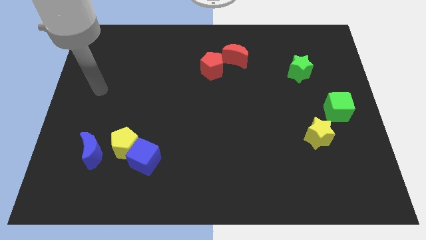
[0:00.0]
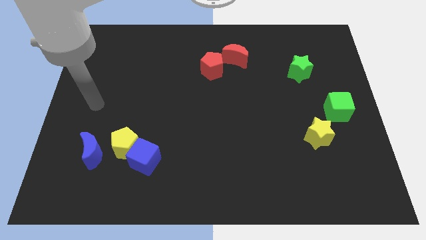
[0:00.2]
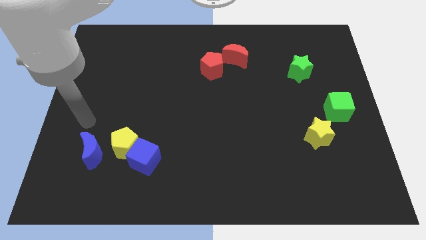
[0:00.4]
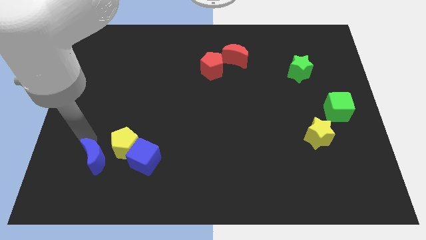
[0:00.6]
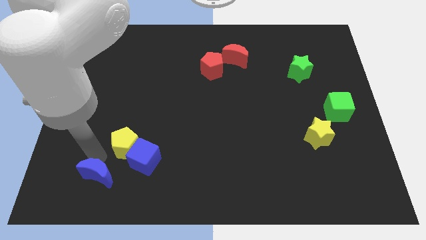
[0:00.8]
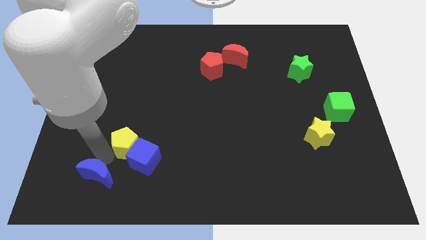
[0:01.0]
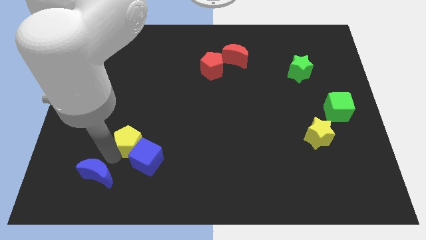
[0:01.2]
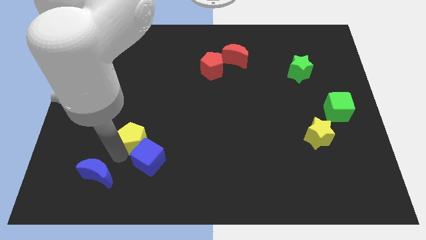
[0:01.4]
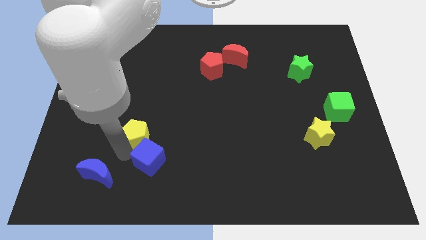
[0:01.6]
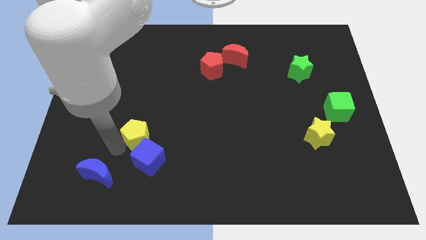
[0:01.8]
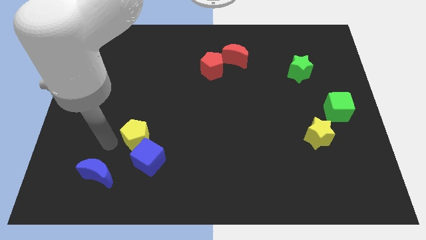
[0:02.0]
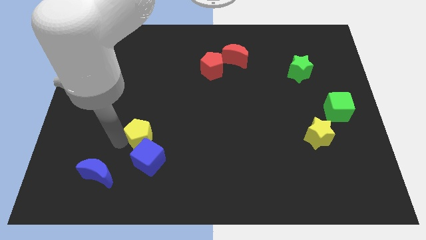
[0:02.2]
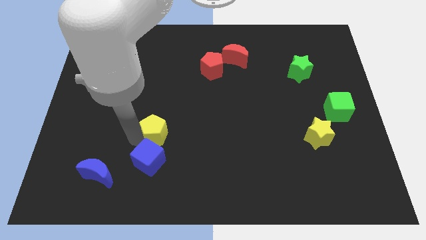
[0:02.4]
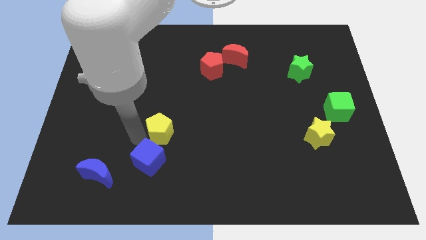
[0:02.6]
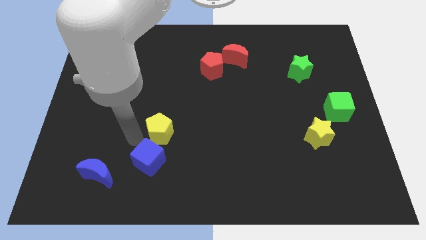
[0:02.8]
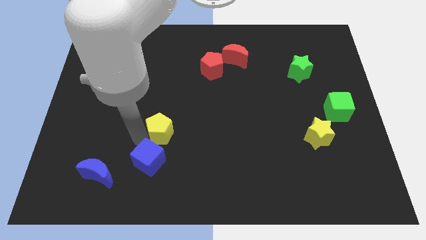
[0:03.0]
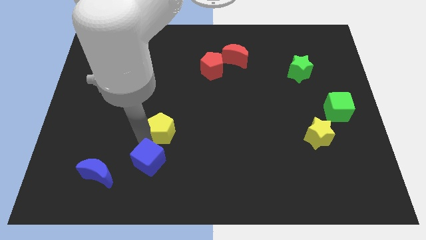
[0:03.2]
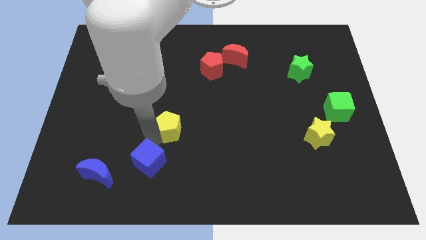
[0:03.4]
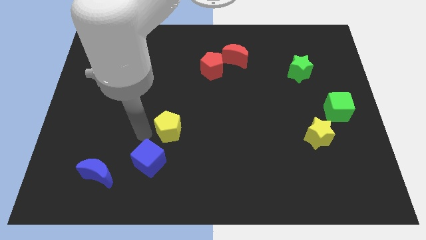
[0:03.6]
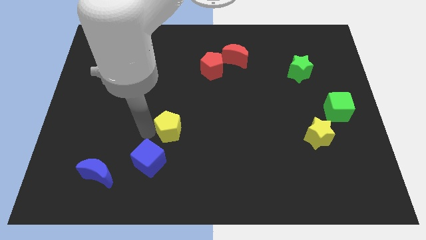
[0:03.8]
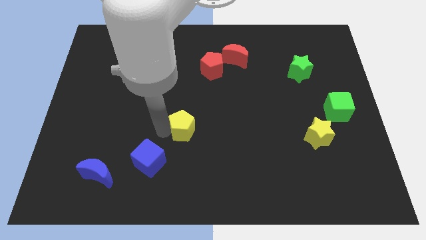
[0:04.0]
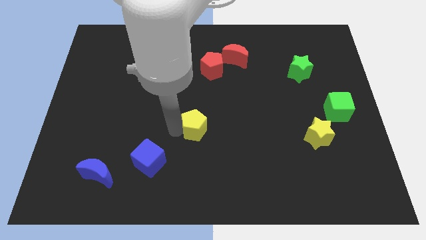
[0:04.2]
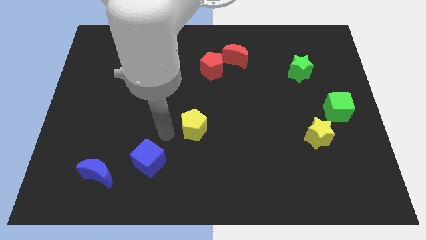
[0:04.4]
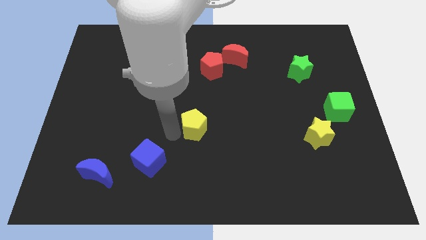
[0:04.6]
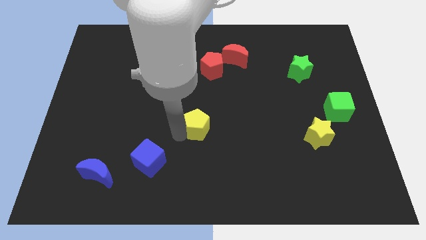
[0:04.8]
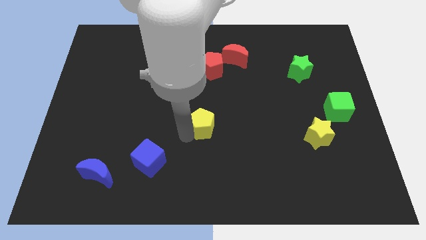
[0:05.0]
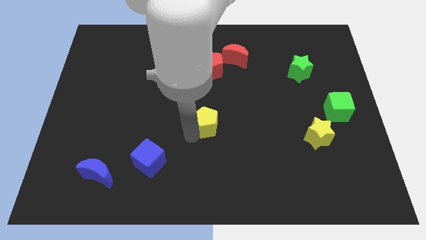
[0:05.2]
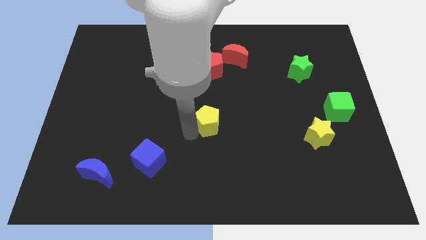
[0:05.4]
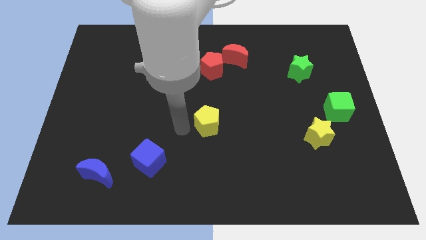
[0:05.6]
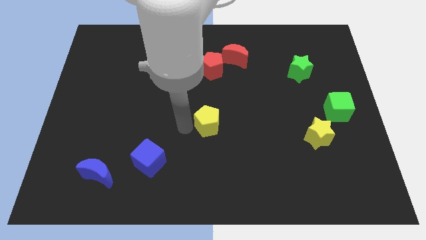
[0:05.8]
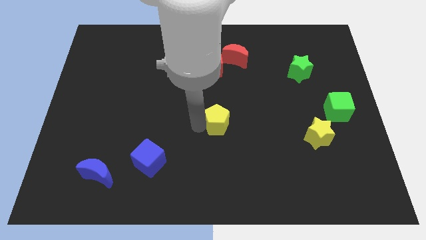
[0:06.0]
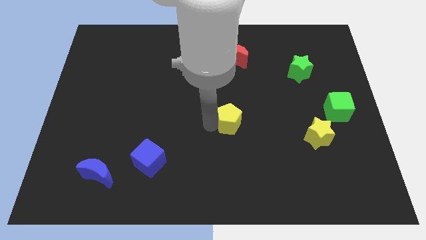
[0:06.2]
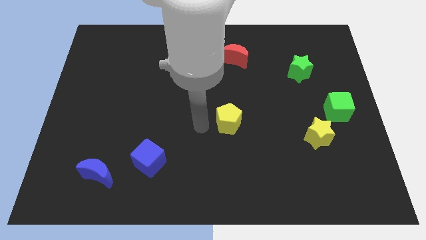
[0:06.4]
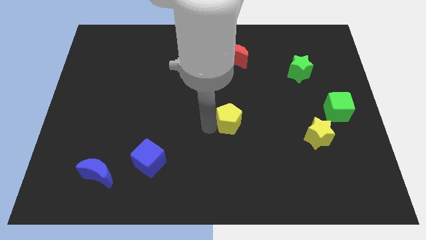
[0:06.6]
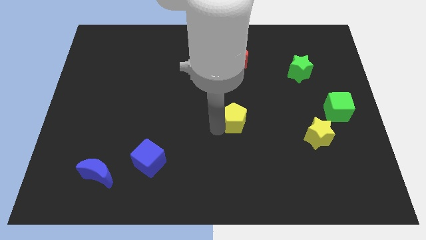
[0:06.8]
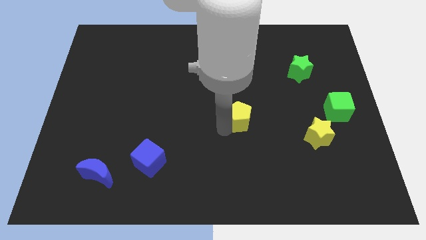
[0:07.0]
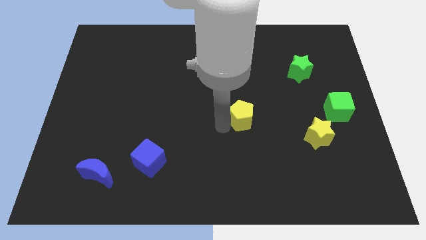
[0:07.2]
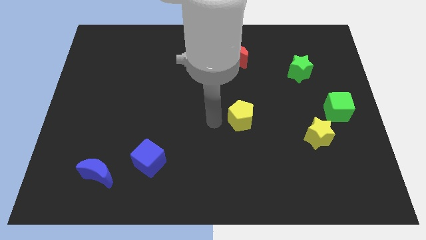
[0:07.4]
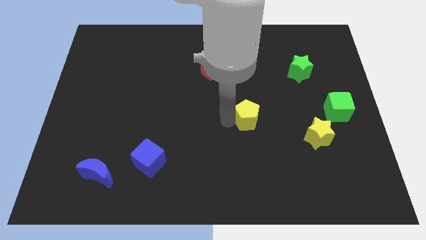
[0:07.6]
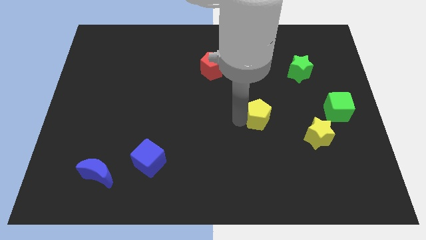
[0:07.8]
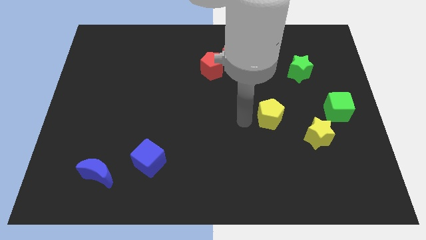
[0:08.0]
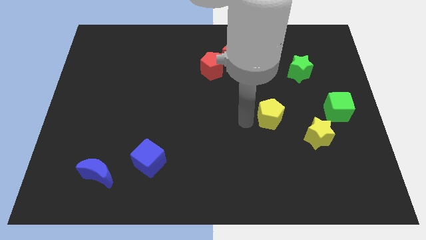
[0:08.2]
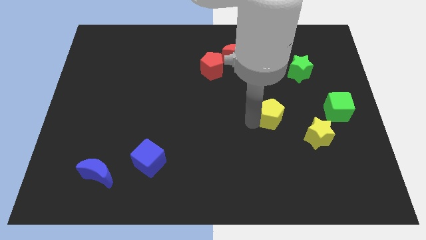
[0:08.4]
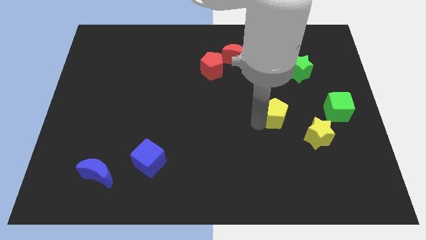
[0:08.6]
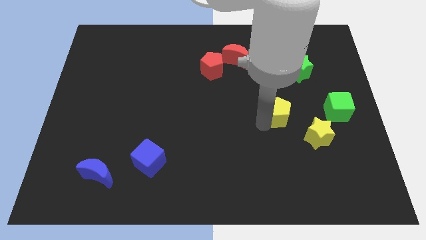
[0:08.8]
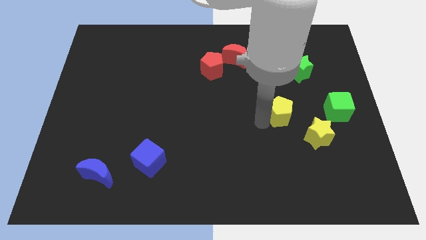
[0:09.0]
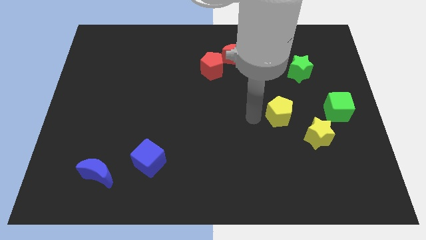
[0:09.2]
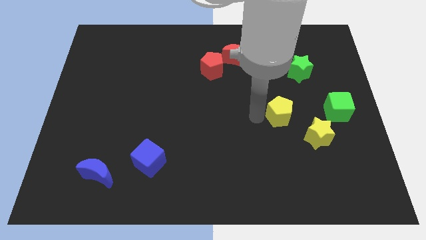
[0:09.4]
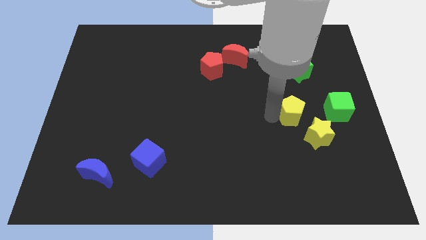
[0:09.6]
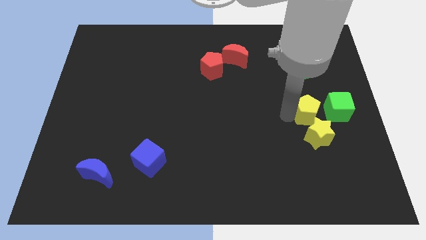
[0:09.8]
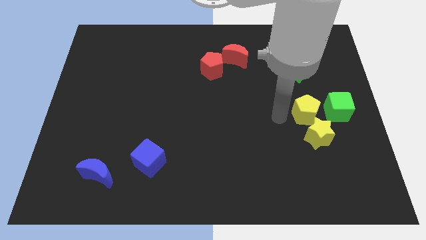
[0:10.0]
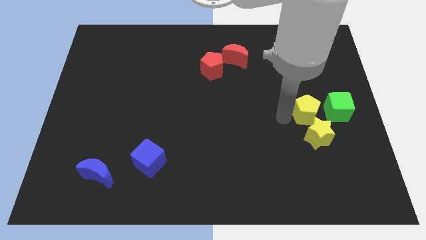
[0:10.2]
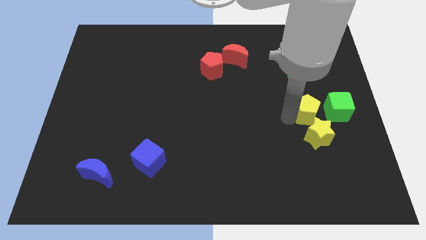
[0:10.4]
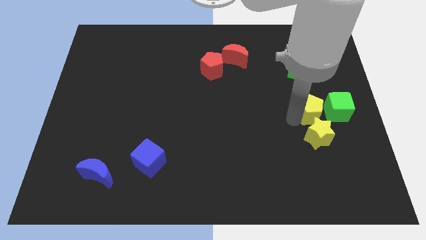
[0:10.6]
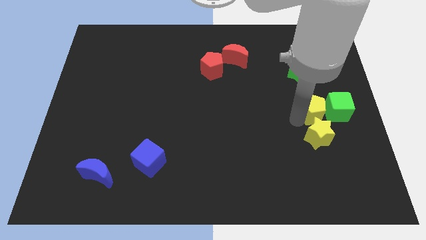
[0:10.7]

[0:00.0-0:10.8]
push the yellow pentagon close to the green cube
